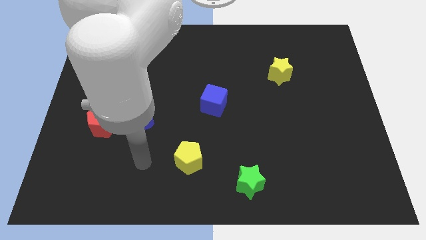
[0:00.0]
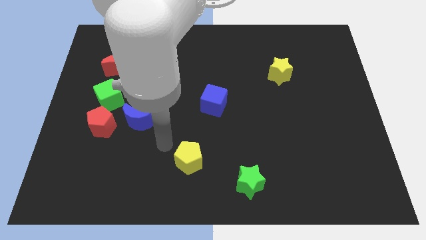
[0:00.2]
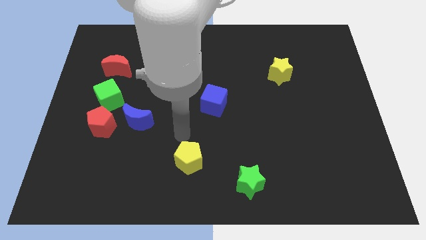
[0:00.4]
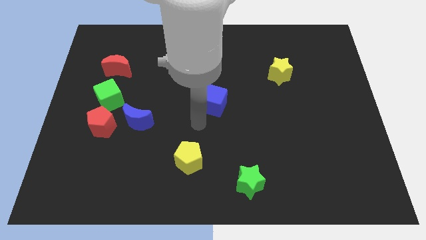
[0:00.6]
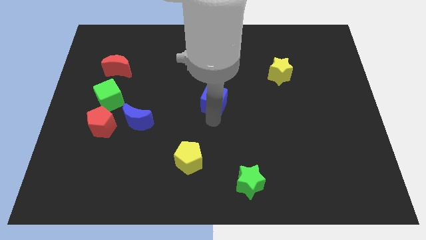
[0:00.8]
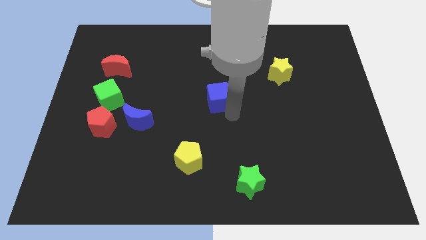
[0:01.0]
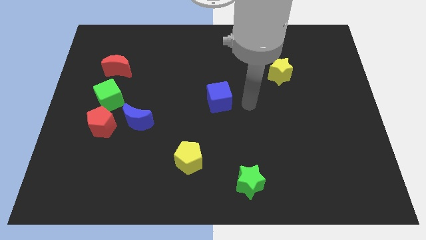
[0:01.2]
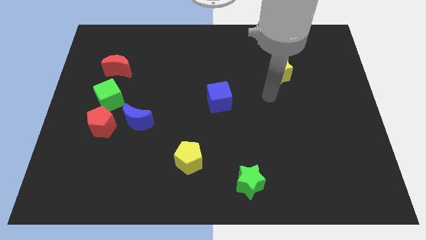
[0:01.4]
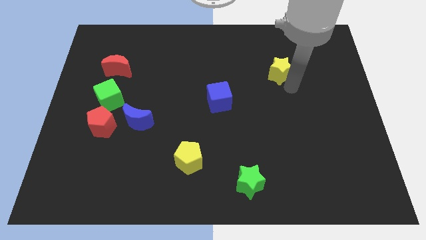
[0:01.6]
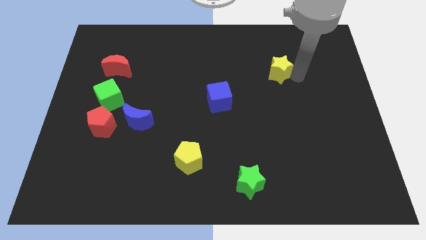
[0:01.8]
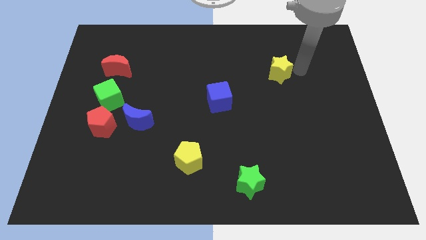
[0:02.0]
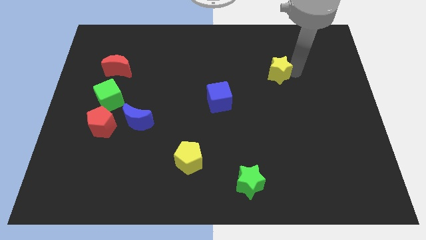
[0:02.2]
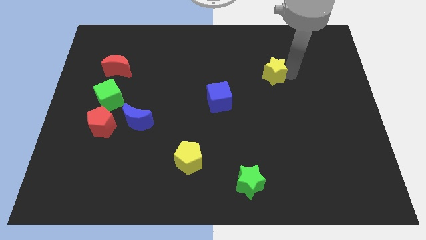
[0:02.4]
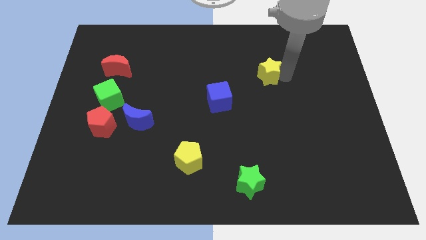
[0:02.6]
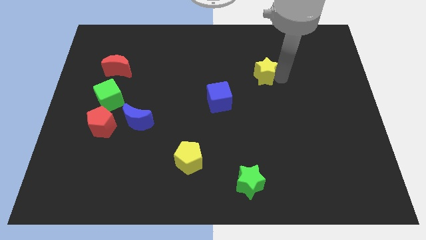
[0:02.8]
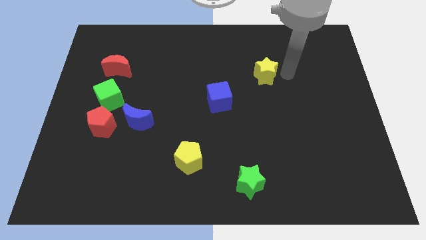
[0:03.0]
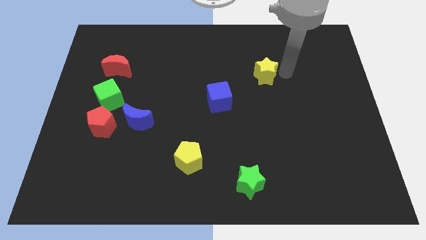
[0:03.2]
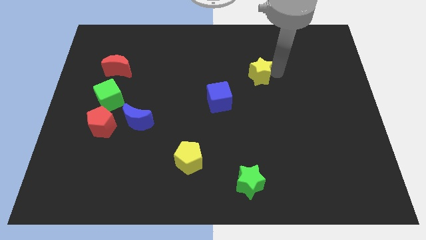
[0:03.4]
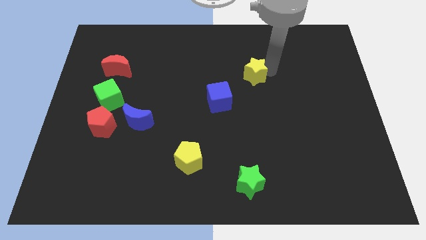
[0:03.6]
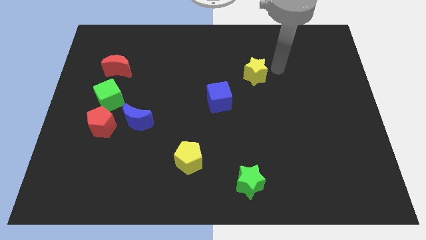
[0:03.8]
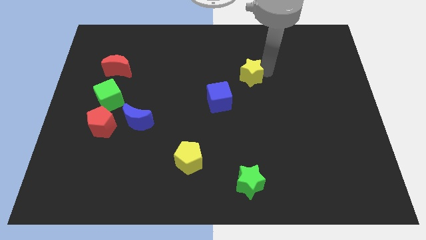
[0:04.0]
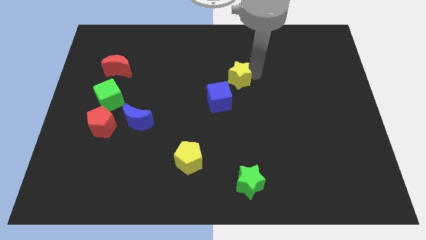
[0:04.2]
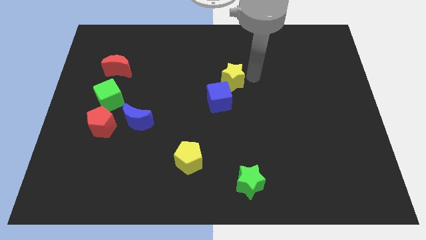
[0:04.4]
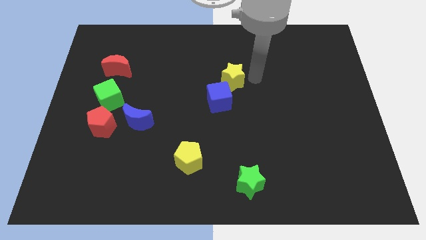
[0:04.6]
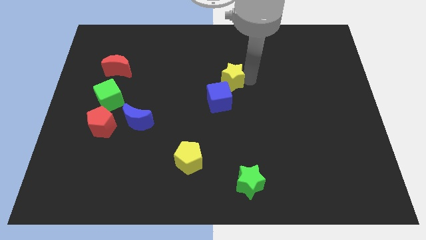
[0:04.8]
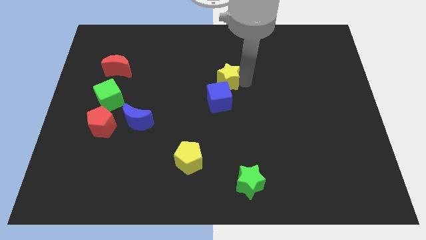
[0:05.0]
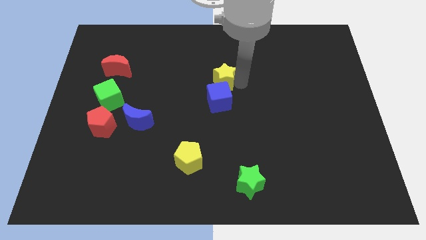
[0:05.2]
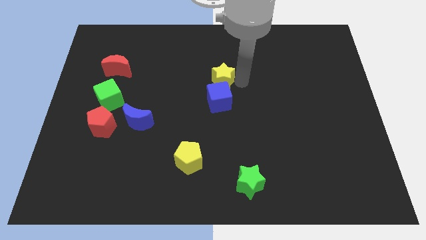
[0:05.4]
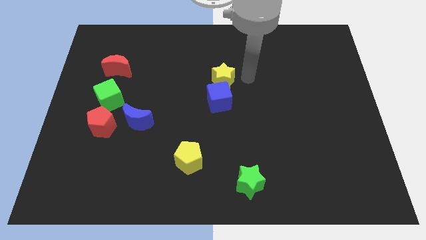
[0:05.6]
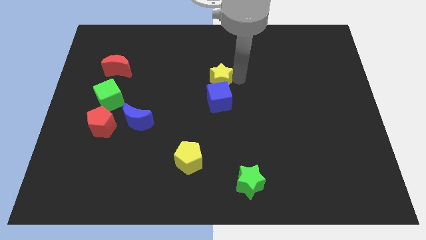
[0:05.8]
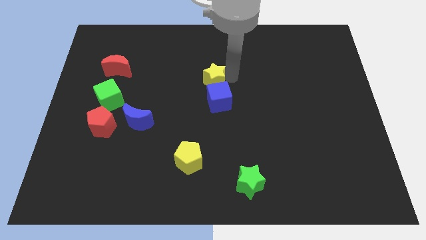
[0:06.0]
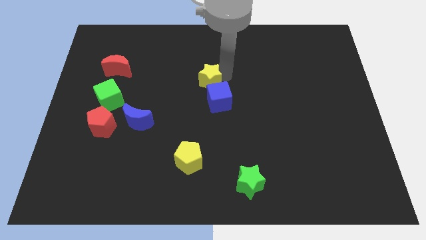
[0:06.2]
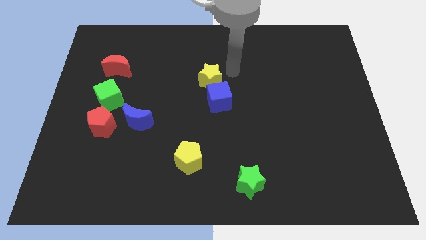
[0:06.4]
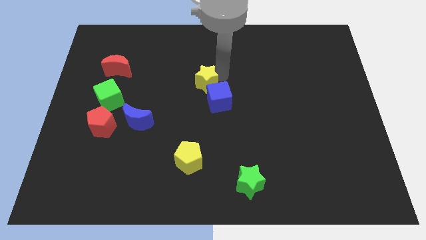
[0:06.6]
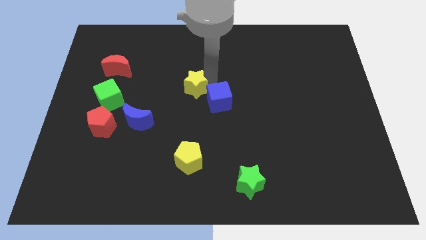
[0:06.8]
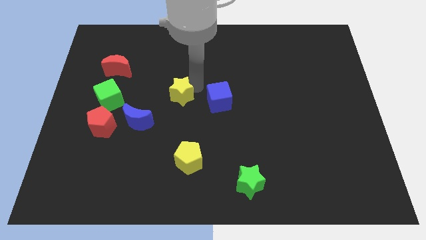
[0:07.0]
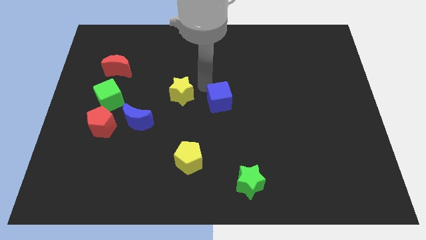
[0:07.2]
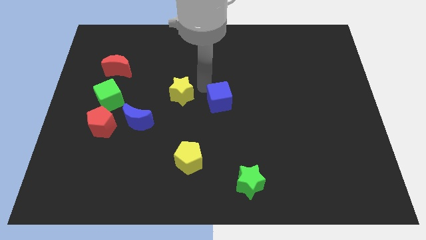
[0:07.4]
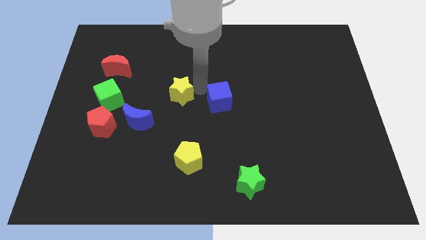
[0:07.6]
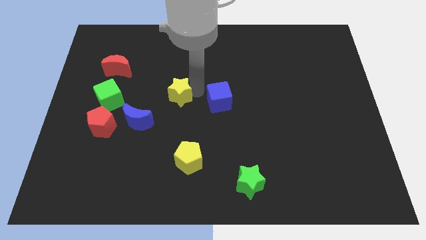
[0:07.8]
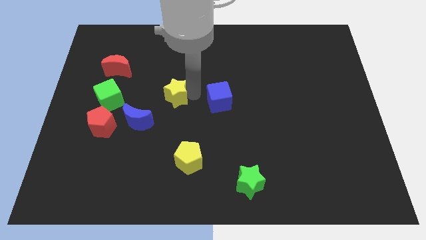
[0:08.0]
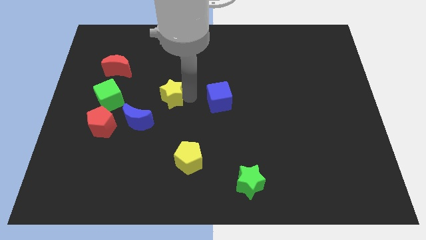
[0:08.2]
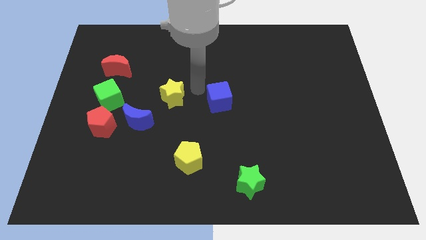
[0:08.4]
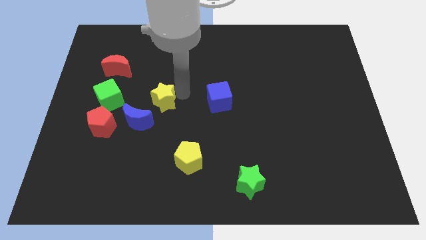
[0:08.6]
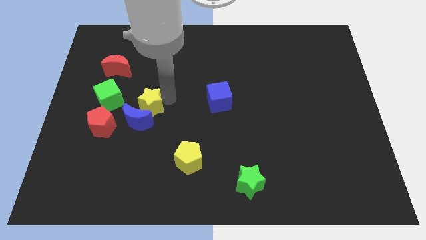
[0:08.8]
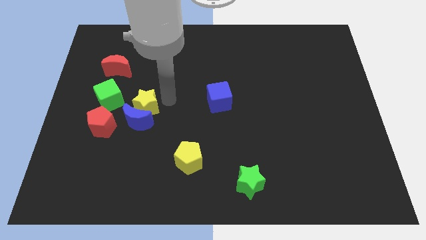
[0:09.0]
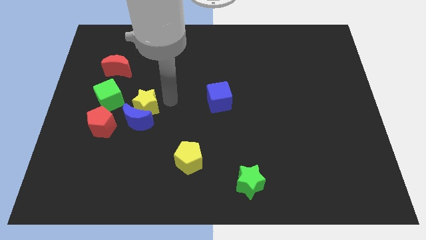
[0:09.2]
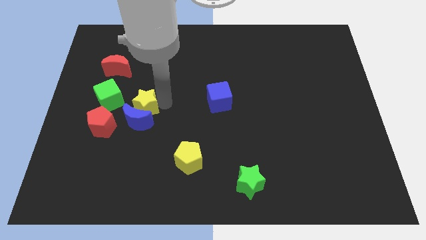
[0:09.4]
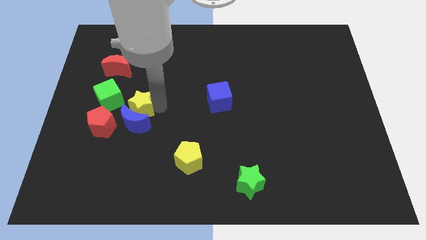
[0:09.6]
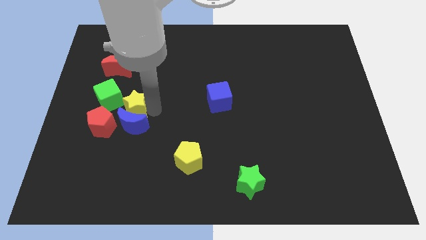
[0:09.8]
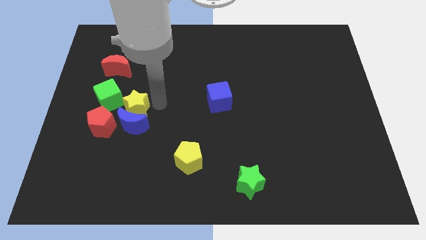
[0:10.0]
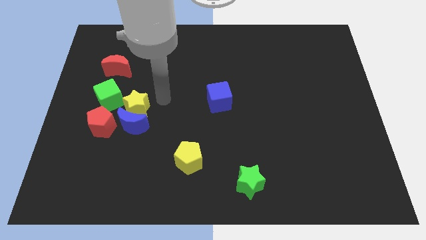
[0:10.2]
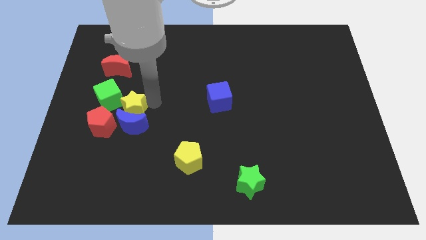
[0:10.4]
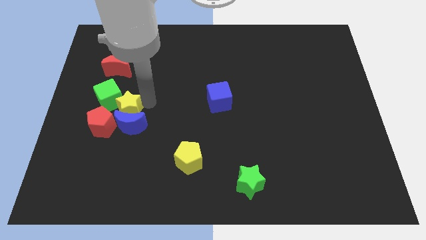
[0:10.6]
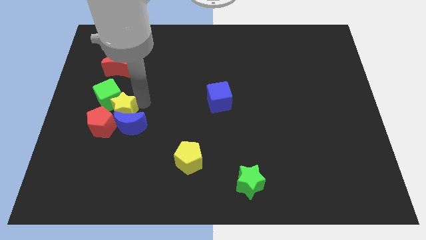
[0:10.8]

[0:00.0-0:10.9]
put the yellow star close to the red pentagon

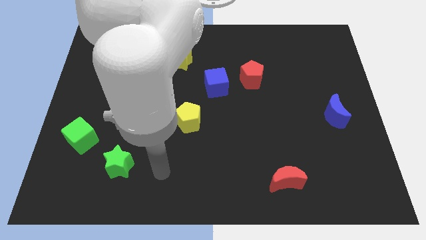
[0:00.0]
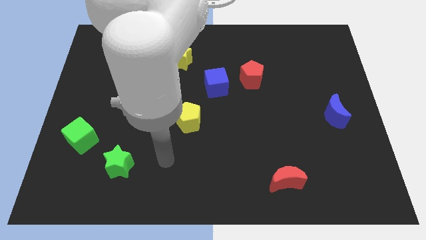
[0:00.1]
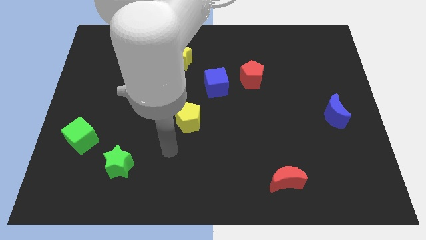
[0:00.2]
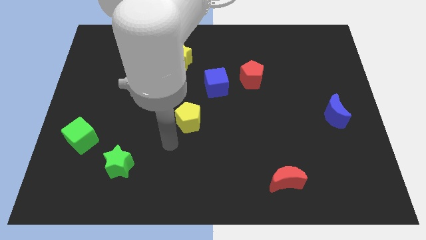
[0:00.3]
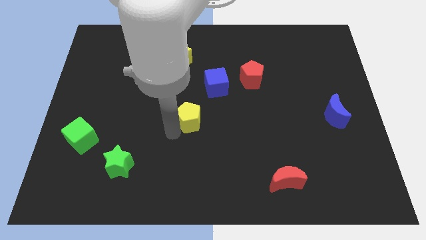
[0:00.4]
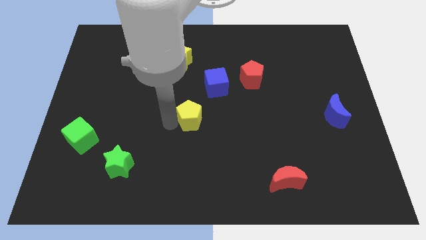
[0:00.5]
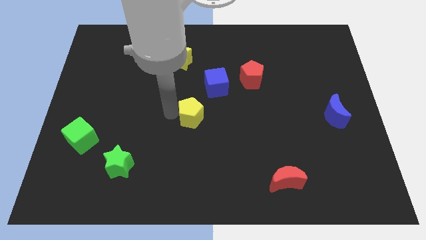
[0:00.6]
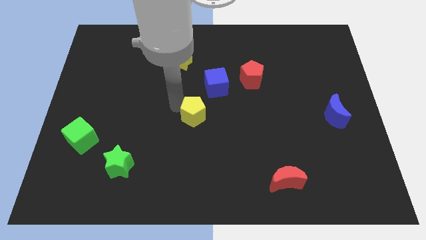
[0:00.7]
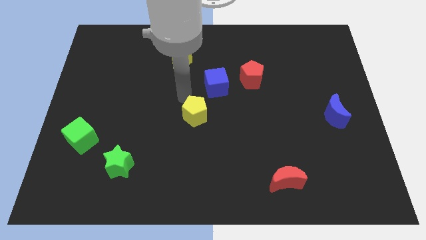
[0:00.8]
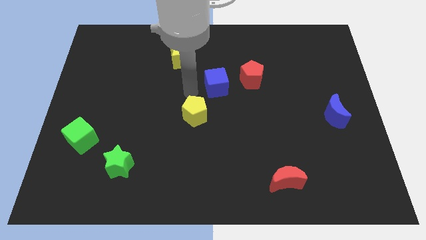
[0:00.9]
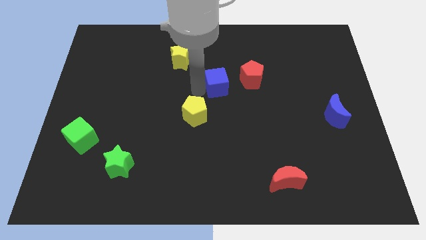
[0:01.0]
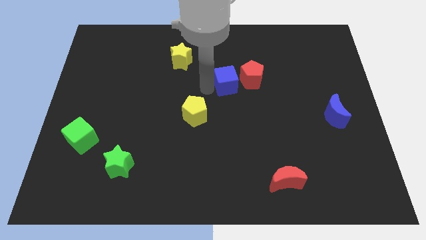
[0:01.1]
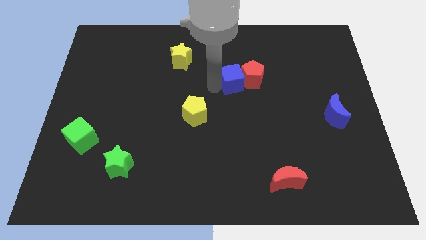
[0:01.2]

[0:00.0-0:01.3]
slide the blue cube to the red pentagon

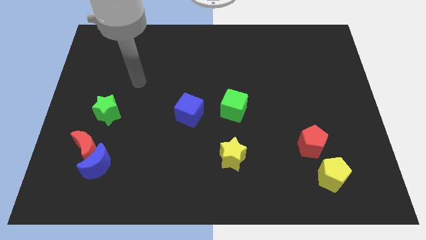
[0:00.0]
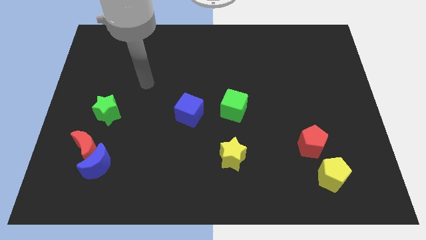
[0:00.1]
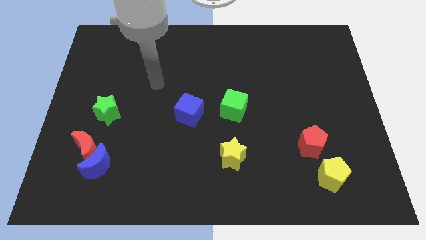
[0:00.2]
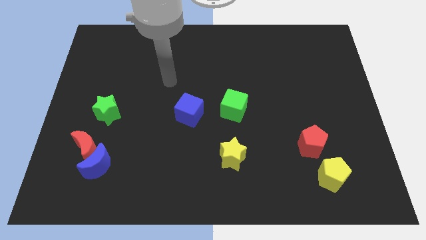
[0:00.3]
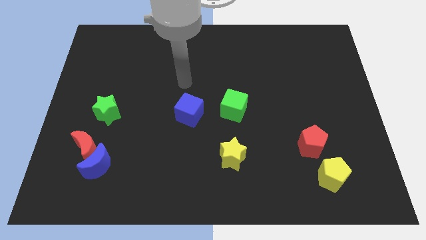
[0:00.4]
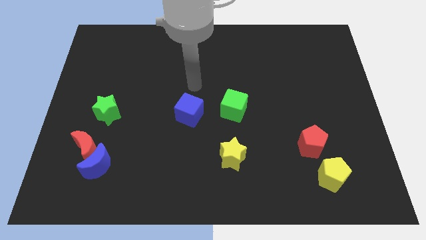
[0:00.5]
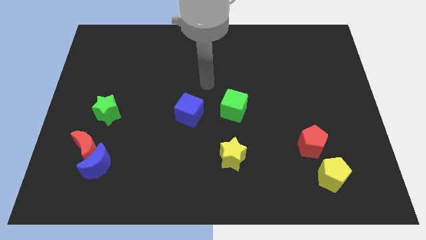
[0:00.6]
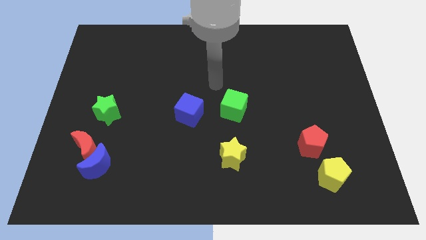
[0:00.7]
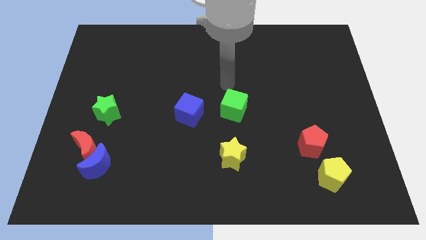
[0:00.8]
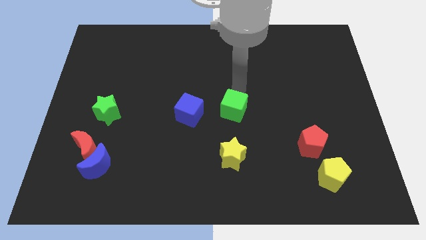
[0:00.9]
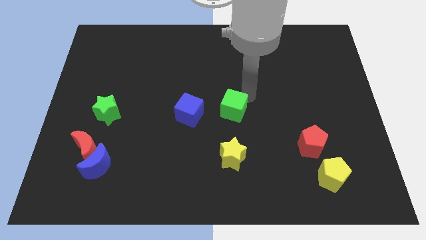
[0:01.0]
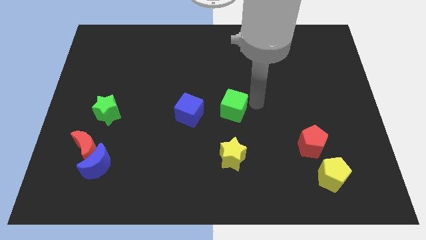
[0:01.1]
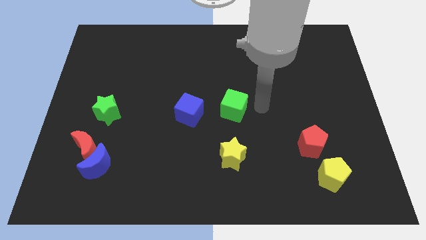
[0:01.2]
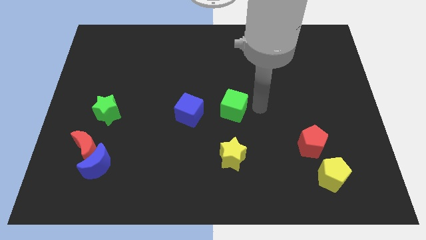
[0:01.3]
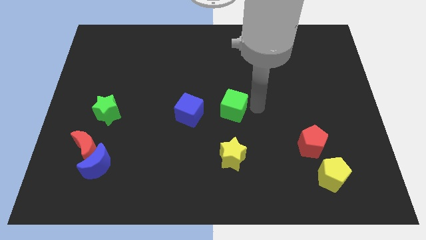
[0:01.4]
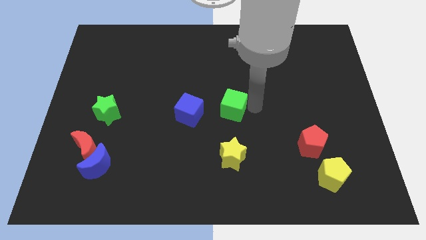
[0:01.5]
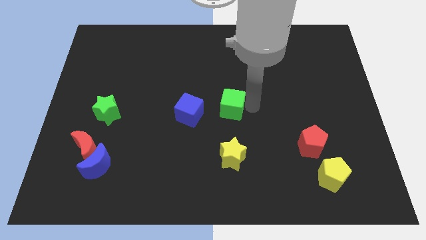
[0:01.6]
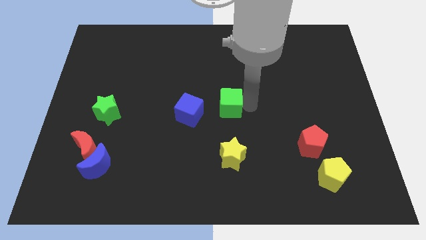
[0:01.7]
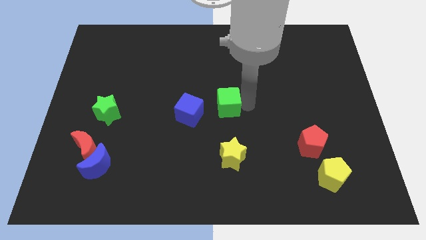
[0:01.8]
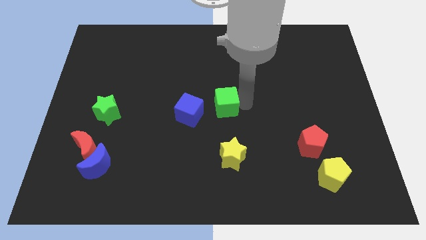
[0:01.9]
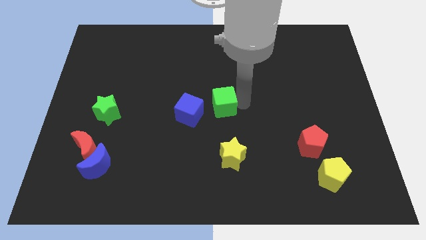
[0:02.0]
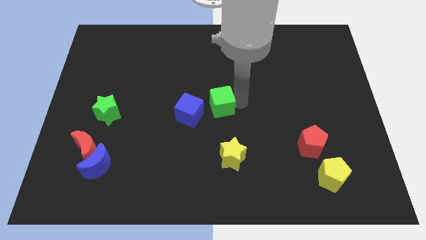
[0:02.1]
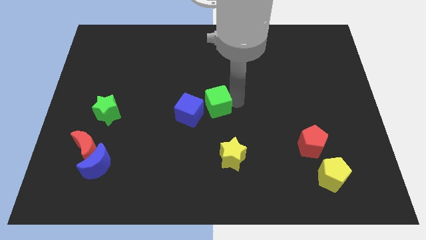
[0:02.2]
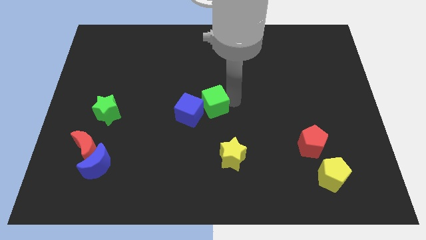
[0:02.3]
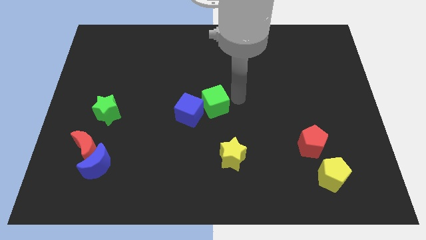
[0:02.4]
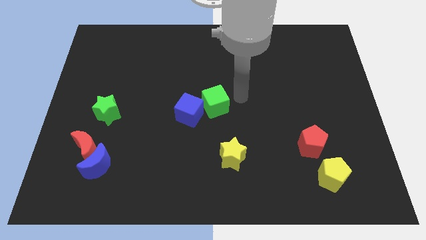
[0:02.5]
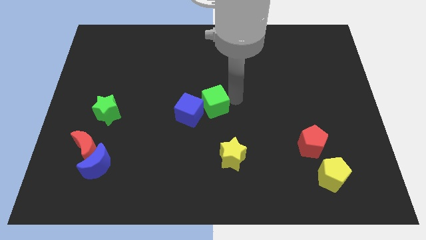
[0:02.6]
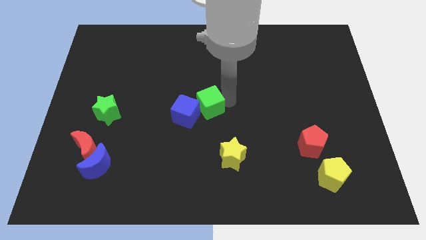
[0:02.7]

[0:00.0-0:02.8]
push the green cube to the blue cube
